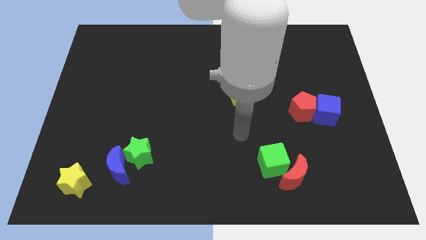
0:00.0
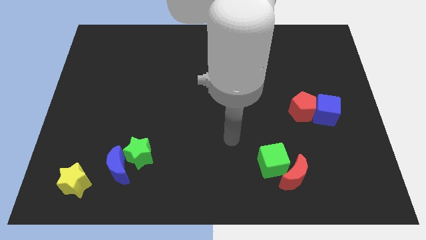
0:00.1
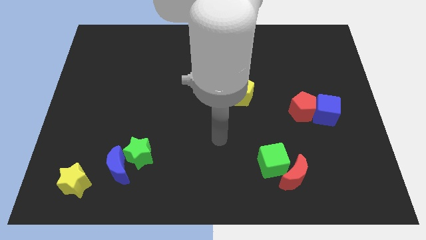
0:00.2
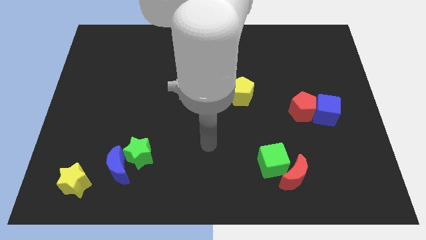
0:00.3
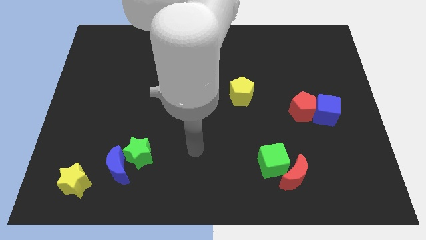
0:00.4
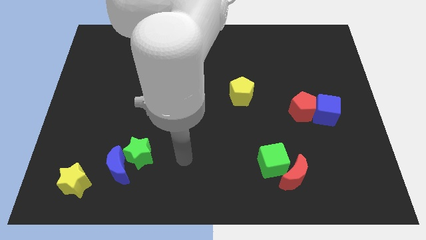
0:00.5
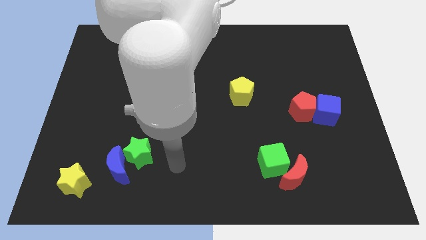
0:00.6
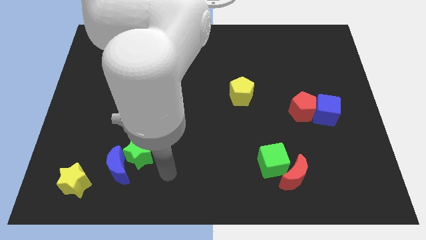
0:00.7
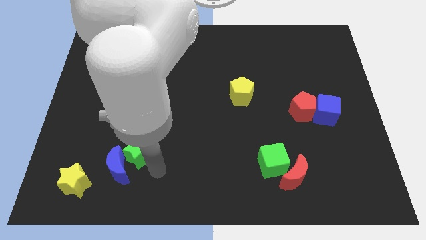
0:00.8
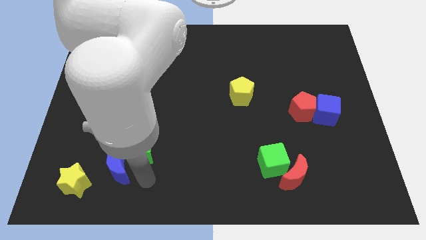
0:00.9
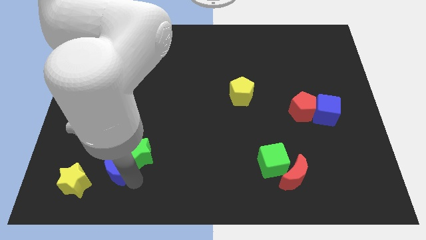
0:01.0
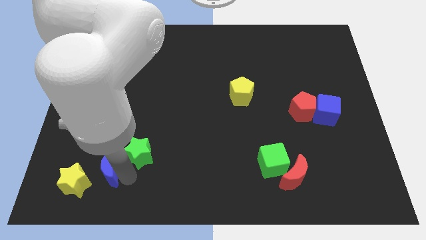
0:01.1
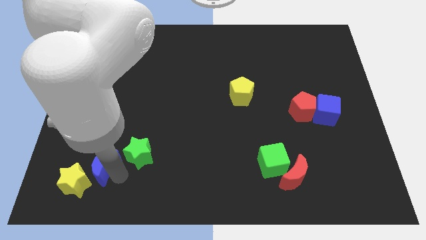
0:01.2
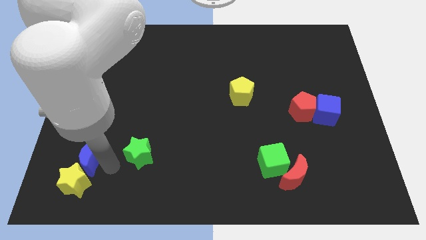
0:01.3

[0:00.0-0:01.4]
pull the green star apart from the blue moon

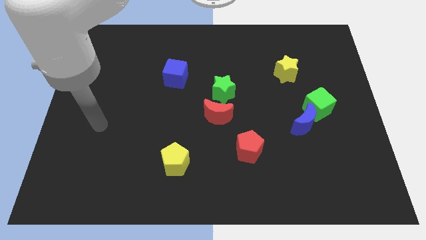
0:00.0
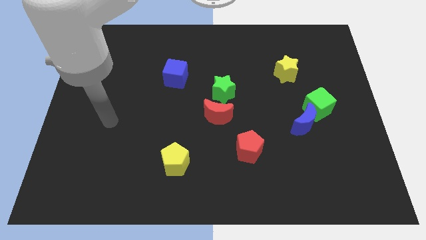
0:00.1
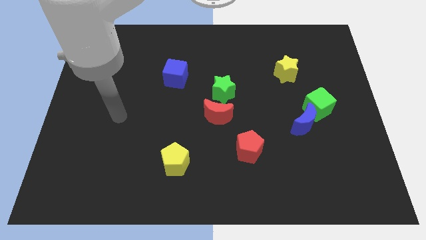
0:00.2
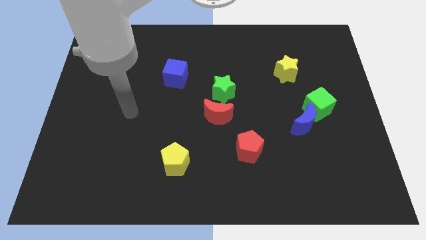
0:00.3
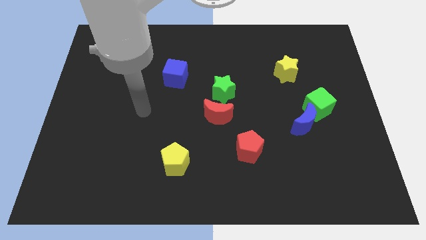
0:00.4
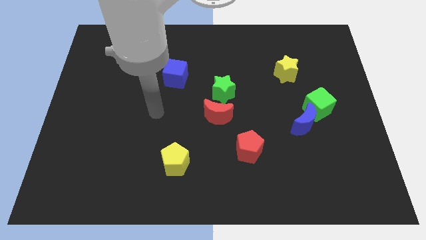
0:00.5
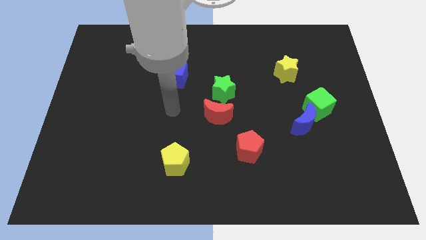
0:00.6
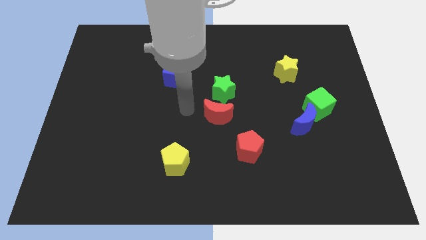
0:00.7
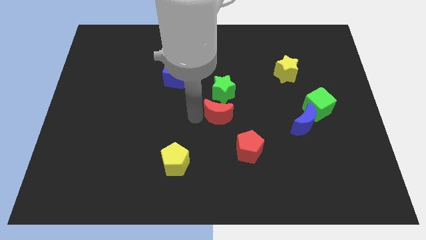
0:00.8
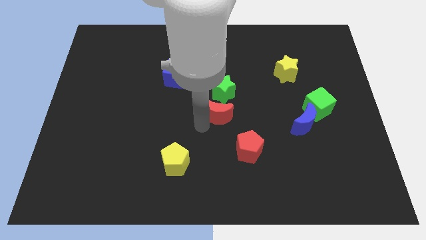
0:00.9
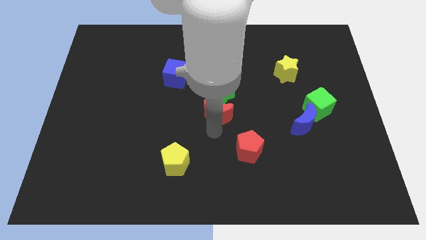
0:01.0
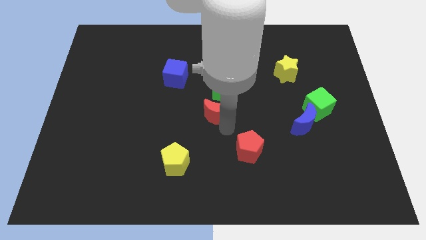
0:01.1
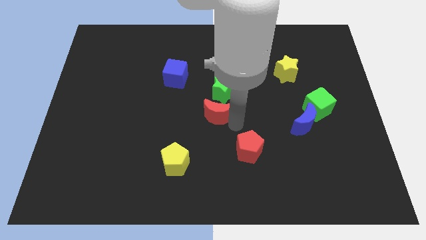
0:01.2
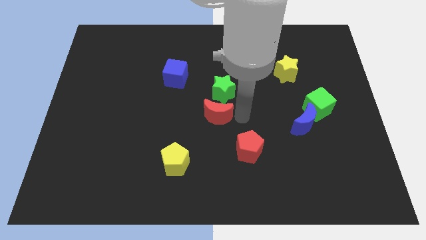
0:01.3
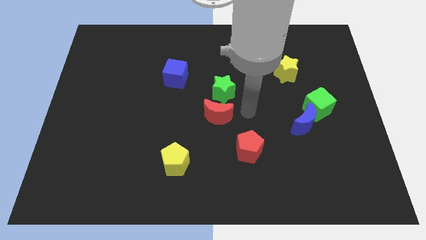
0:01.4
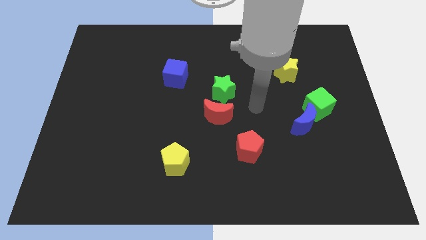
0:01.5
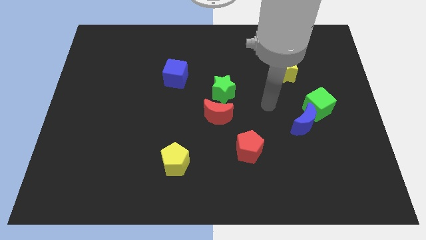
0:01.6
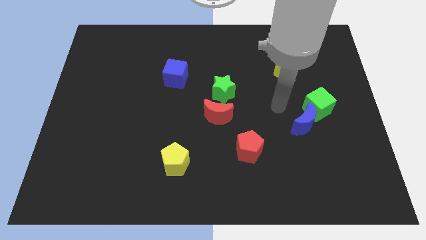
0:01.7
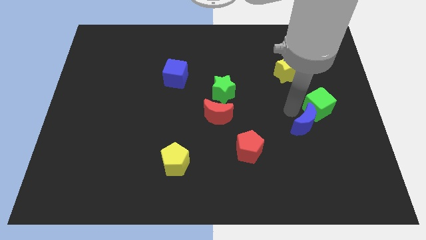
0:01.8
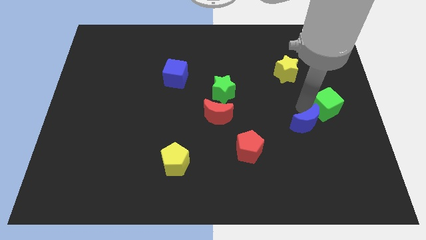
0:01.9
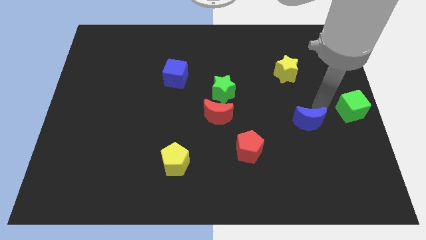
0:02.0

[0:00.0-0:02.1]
separate the blue moon from the green cube

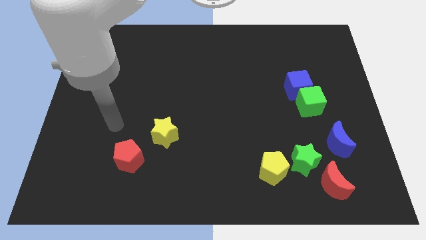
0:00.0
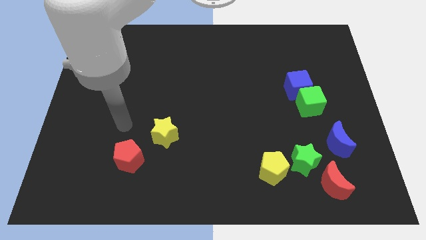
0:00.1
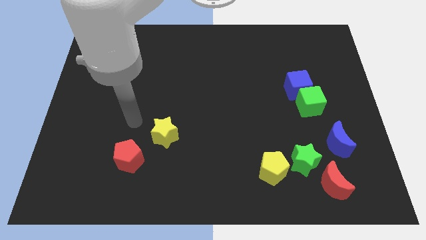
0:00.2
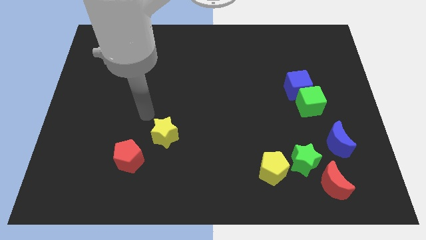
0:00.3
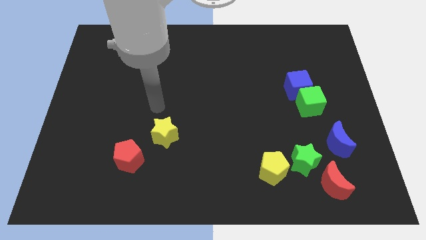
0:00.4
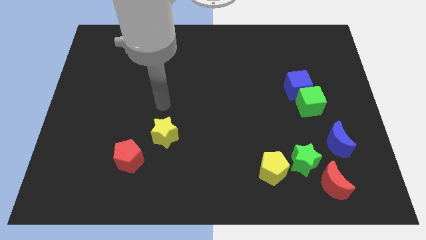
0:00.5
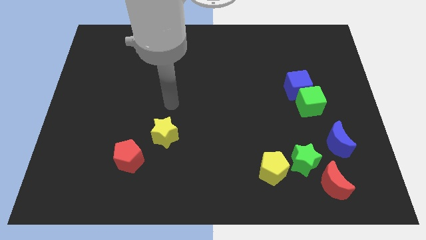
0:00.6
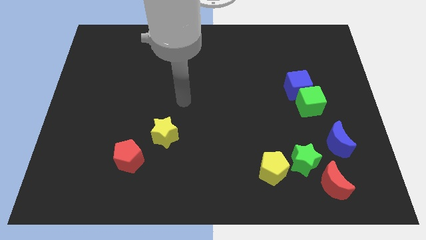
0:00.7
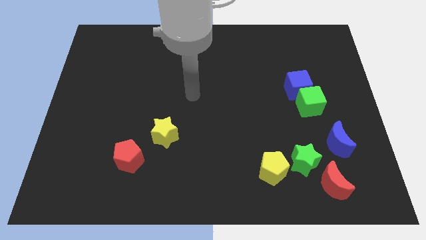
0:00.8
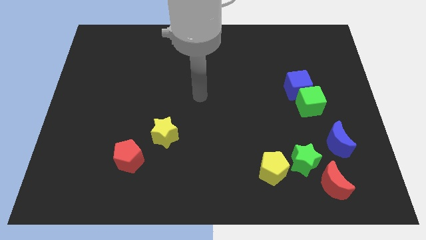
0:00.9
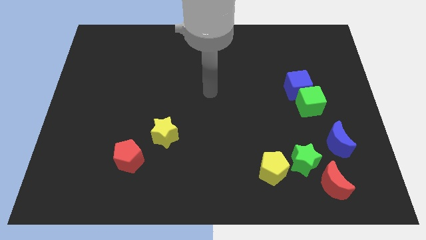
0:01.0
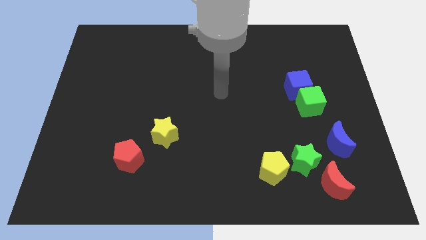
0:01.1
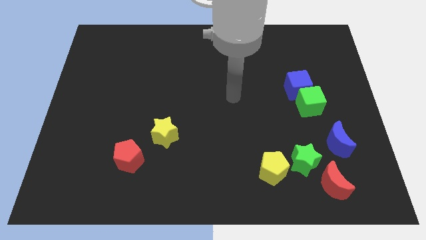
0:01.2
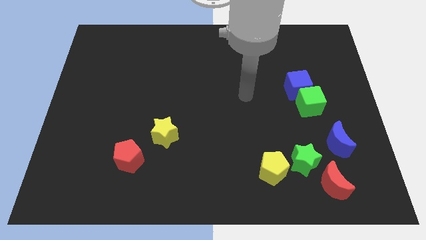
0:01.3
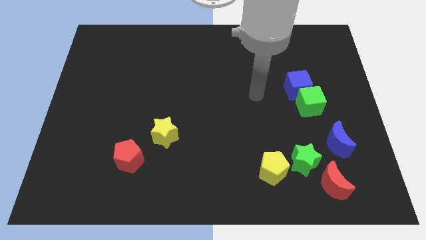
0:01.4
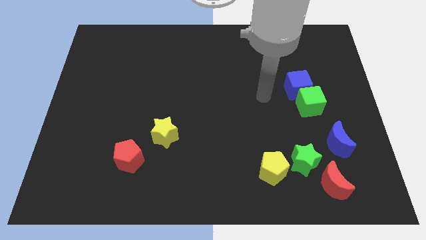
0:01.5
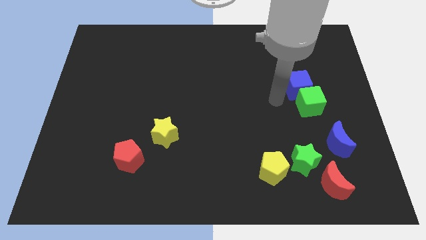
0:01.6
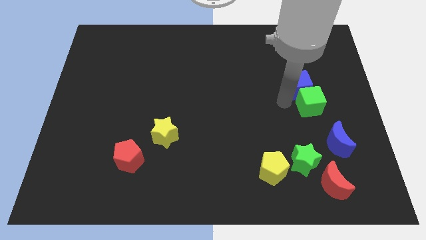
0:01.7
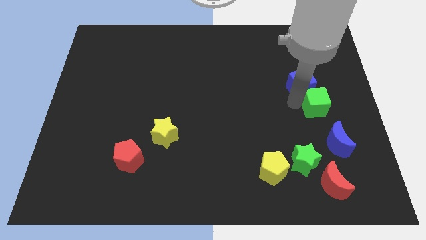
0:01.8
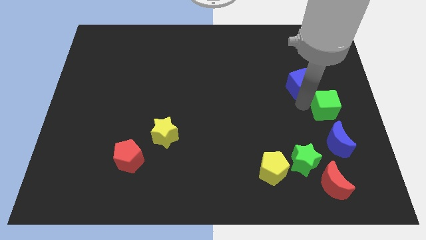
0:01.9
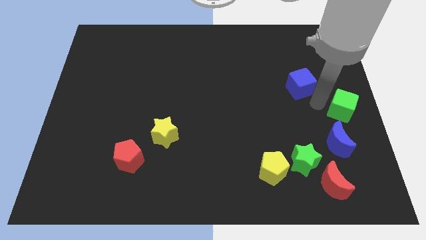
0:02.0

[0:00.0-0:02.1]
separate the blue cube from the green cube

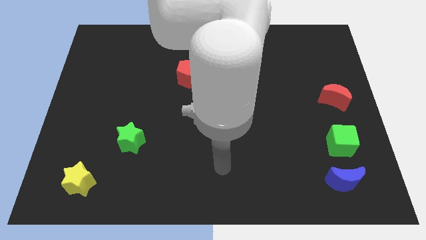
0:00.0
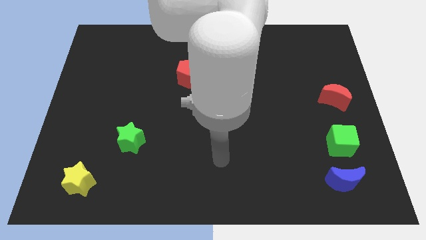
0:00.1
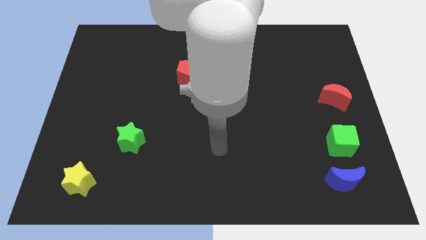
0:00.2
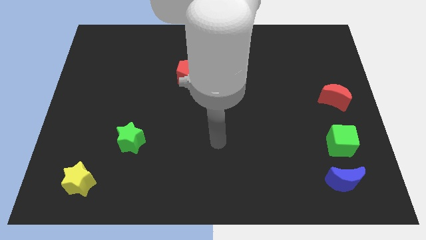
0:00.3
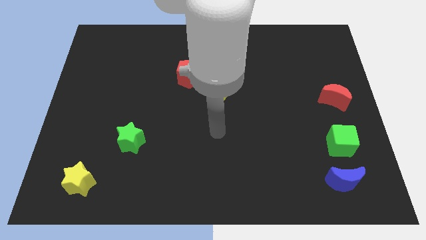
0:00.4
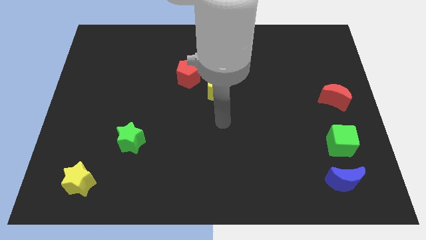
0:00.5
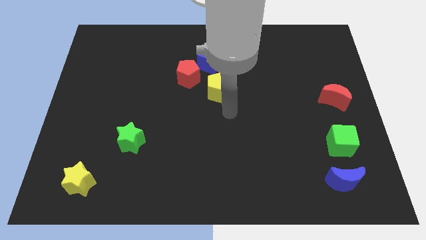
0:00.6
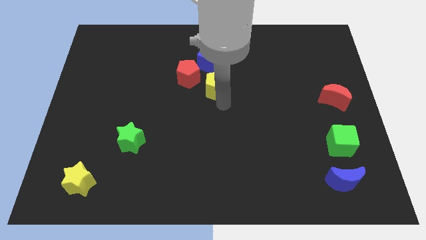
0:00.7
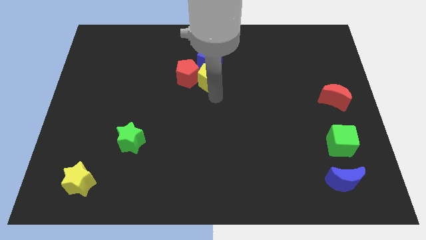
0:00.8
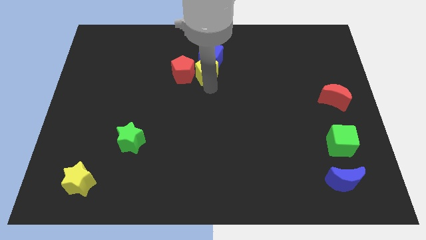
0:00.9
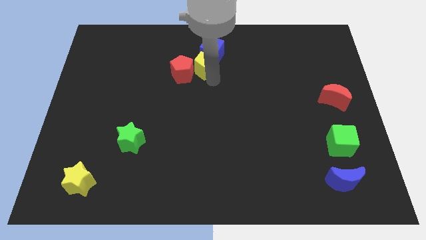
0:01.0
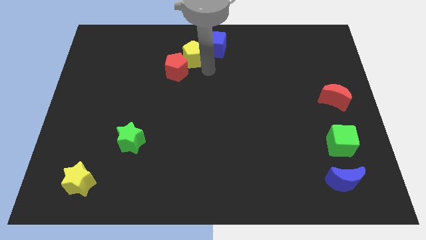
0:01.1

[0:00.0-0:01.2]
pull the red pentagon apart from the blue cube and yellow pentagon

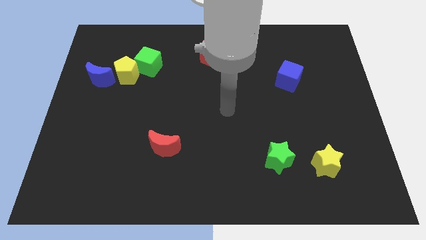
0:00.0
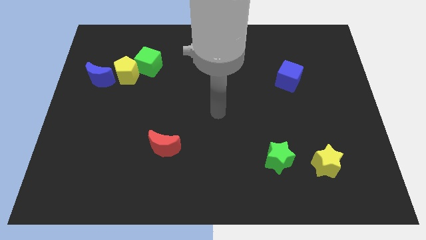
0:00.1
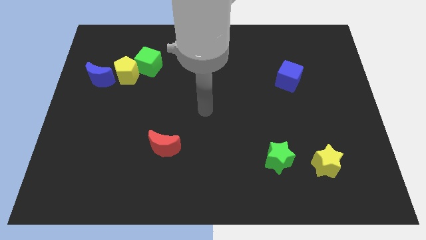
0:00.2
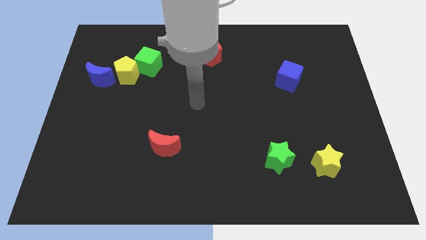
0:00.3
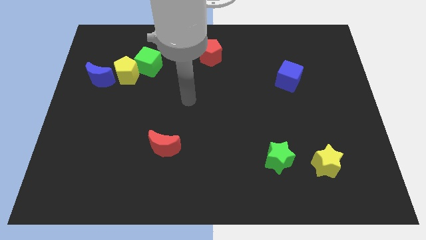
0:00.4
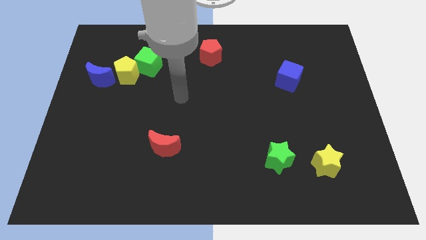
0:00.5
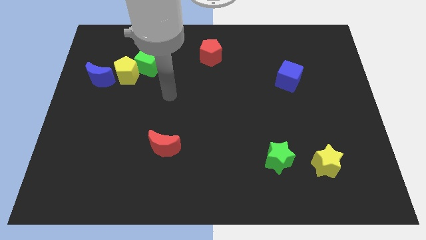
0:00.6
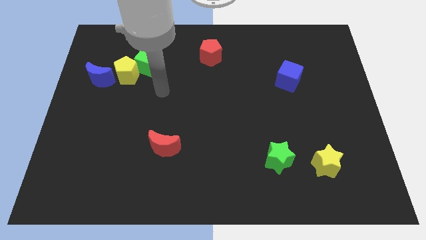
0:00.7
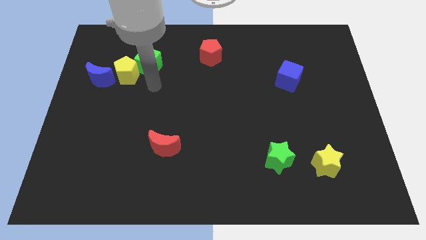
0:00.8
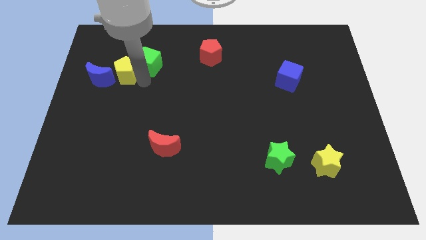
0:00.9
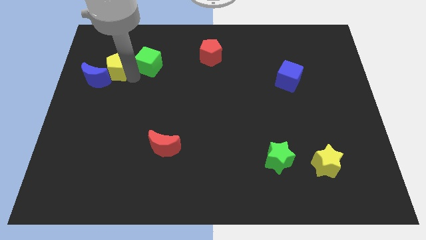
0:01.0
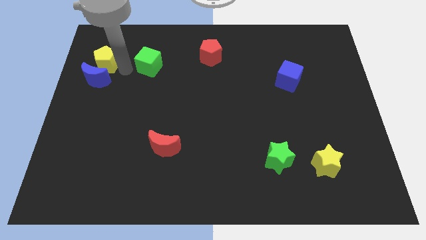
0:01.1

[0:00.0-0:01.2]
separate the green cube from the yellow pentagon

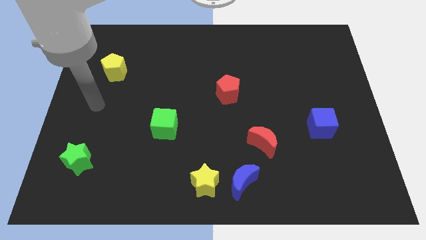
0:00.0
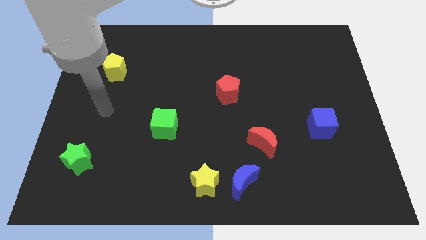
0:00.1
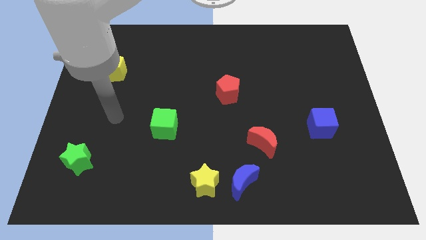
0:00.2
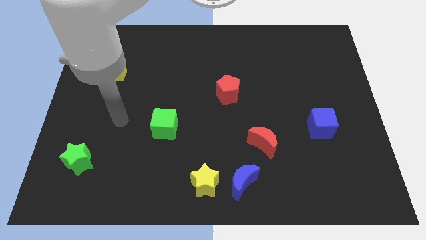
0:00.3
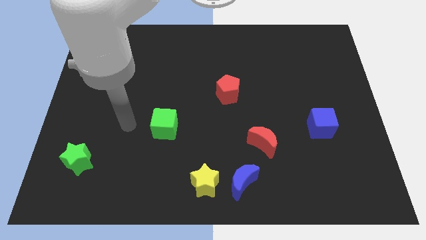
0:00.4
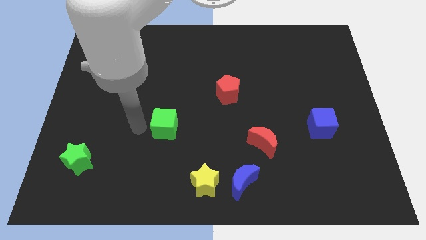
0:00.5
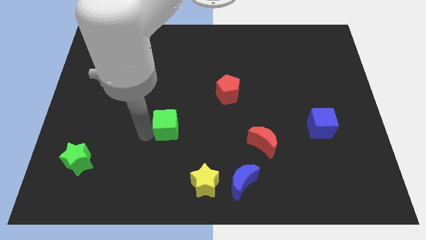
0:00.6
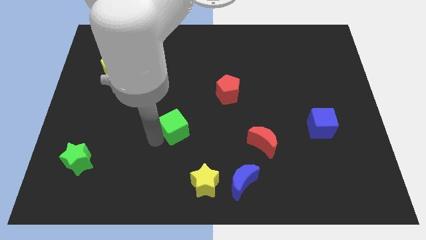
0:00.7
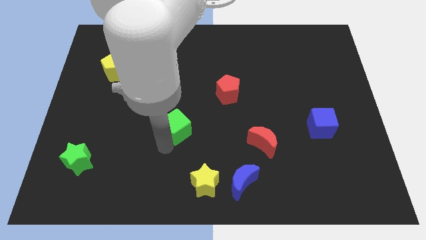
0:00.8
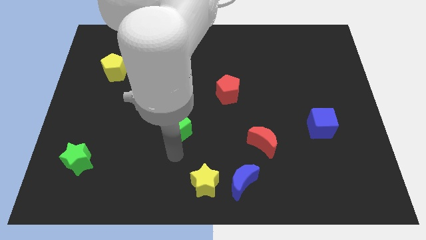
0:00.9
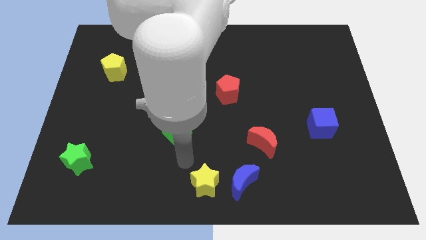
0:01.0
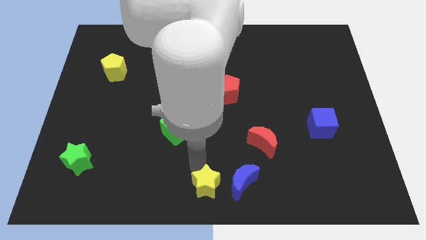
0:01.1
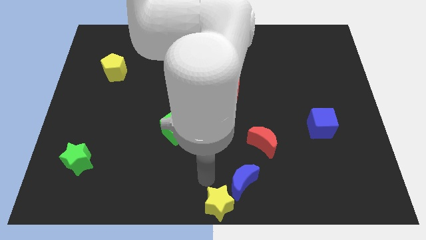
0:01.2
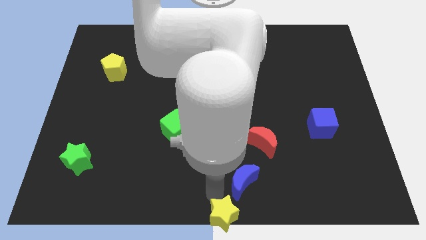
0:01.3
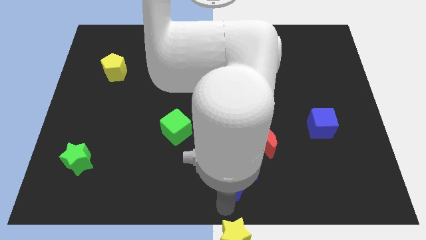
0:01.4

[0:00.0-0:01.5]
separate the blue moon from the yellow star
